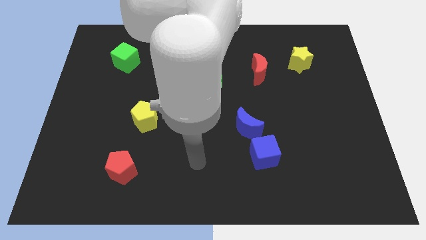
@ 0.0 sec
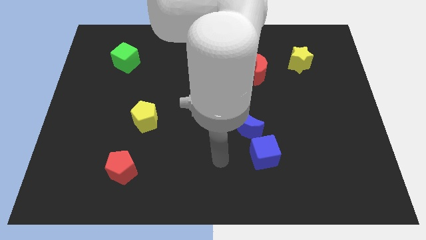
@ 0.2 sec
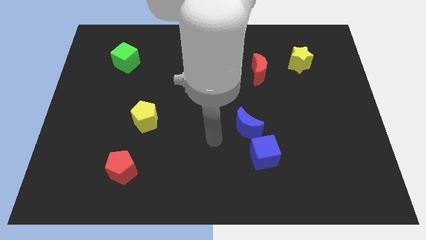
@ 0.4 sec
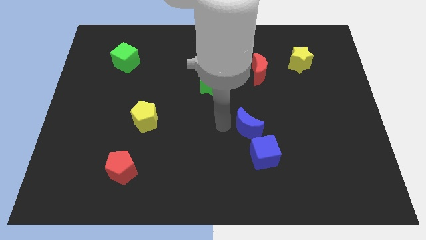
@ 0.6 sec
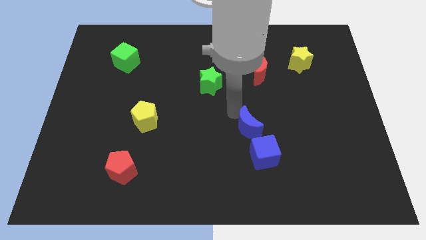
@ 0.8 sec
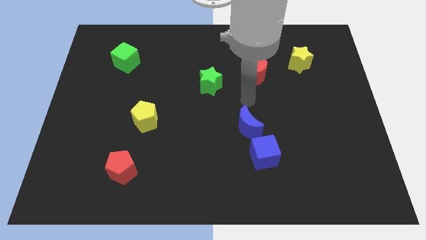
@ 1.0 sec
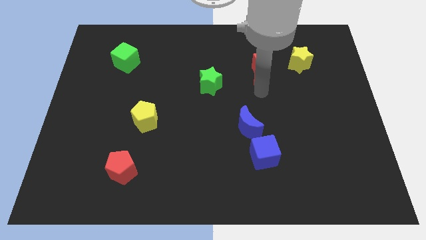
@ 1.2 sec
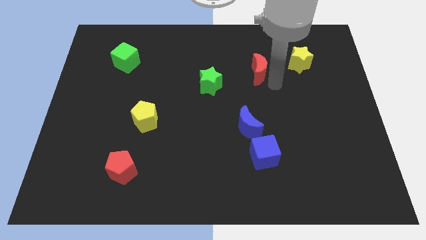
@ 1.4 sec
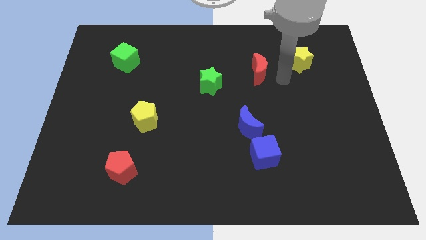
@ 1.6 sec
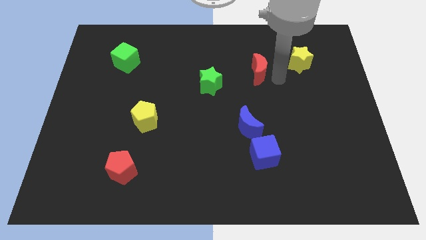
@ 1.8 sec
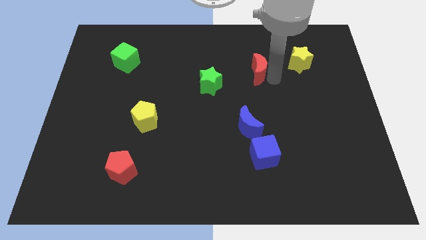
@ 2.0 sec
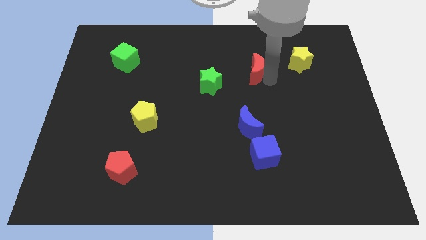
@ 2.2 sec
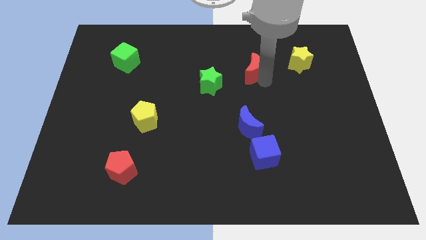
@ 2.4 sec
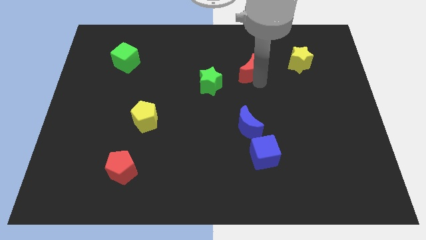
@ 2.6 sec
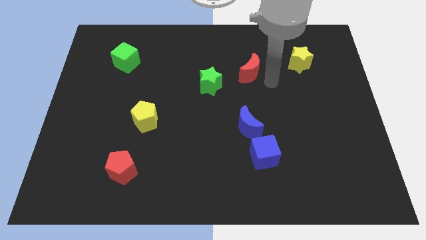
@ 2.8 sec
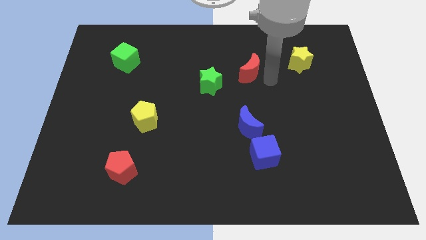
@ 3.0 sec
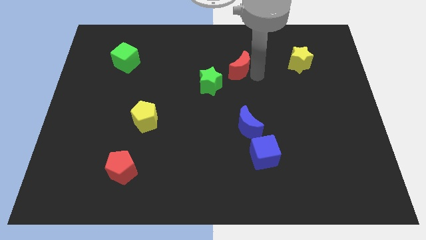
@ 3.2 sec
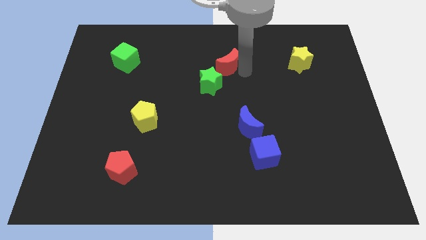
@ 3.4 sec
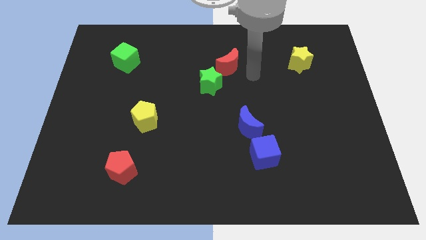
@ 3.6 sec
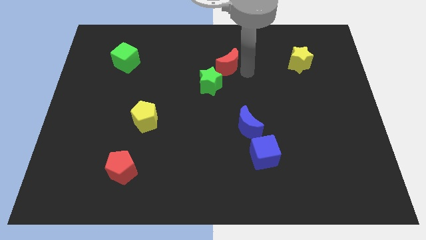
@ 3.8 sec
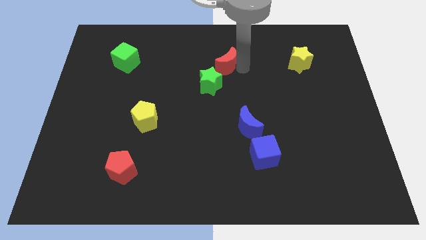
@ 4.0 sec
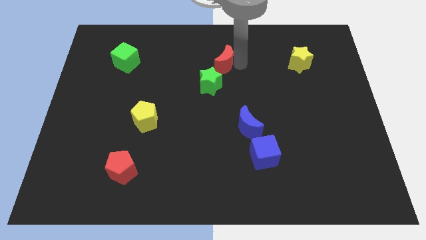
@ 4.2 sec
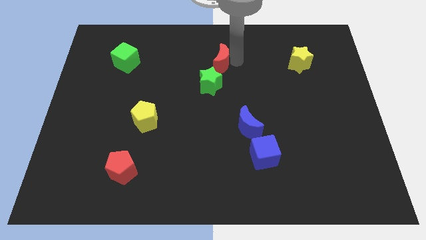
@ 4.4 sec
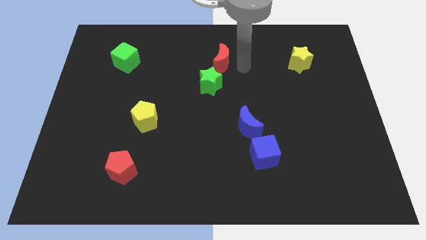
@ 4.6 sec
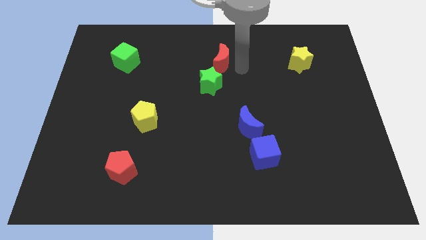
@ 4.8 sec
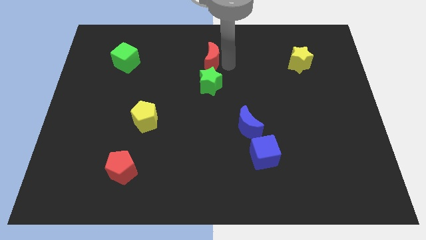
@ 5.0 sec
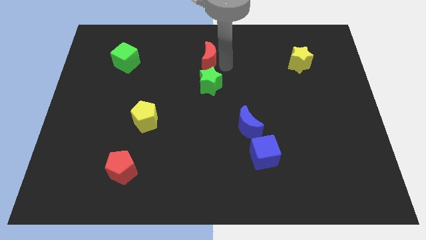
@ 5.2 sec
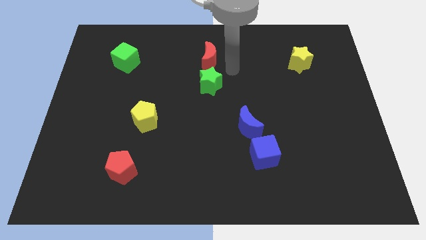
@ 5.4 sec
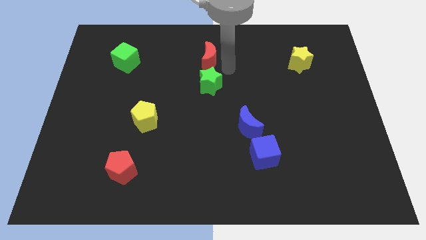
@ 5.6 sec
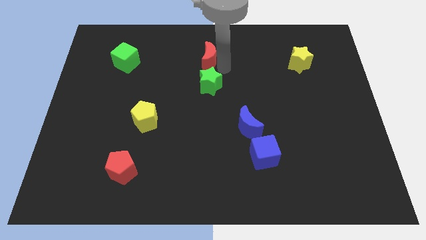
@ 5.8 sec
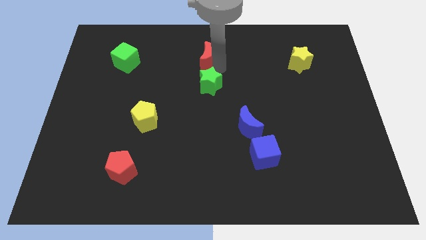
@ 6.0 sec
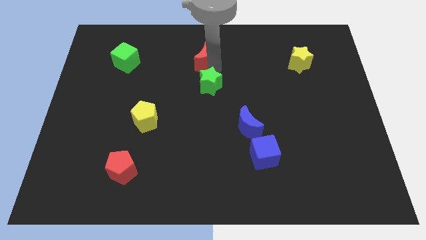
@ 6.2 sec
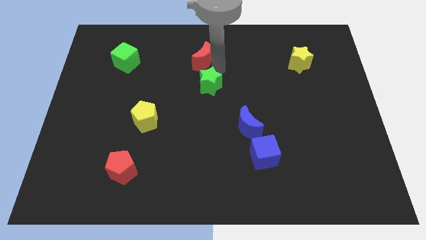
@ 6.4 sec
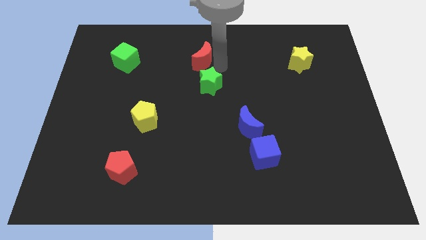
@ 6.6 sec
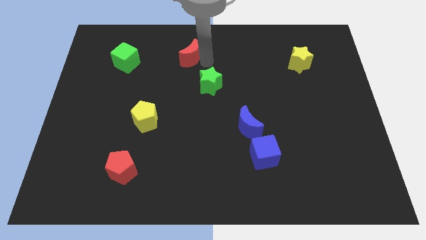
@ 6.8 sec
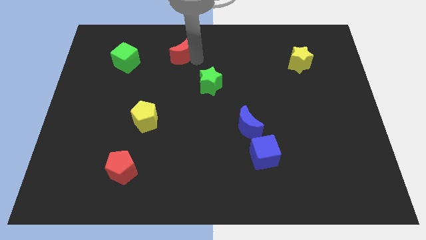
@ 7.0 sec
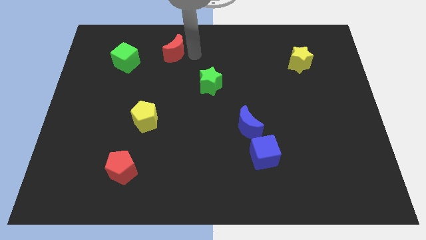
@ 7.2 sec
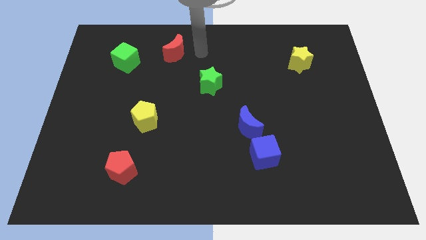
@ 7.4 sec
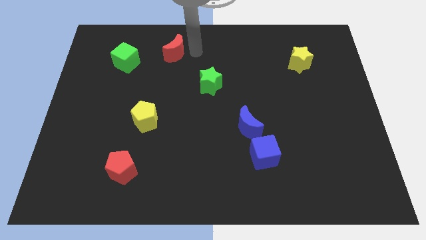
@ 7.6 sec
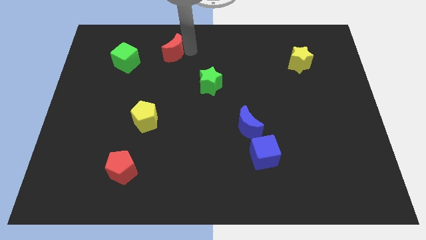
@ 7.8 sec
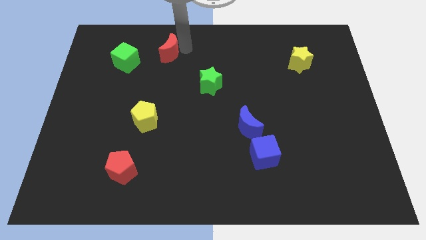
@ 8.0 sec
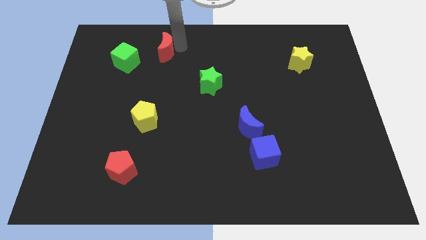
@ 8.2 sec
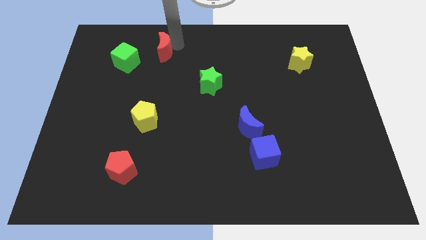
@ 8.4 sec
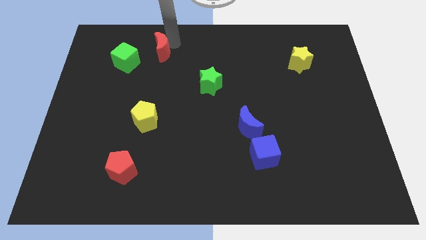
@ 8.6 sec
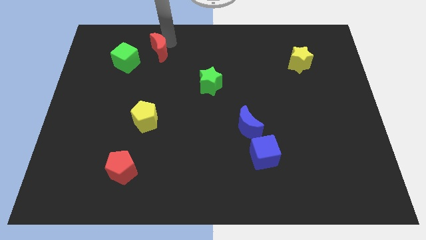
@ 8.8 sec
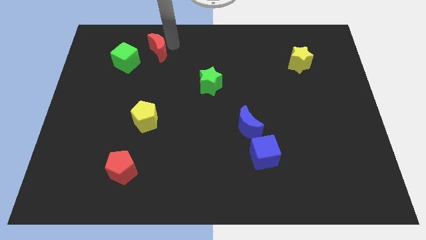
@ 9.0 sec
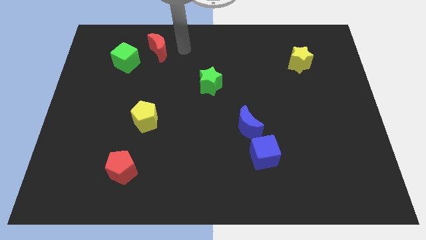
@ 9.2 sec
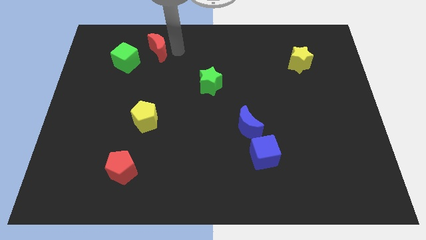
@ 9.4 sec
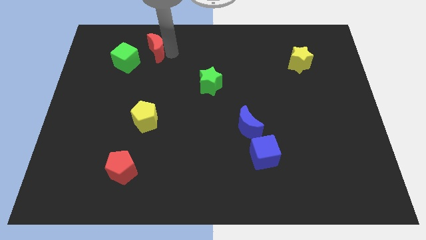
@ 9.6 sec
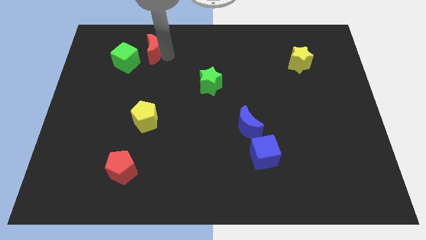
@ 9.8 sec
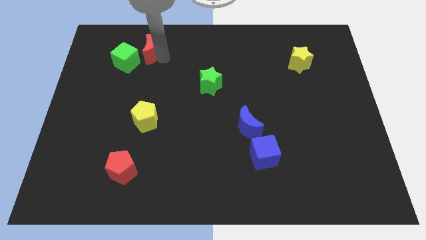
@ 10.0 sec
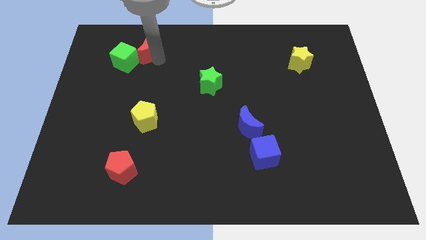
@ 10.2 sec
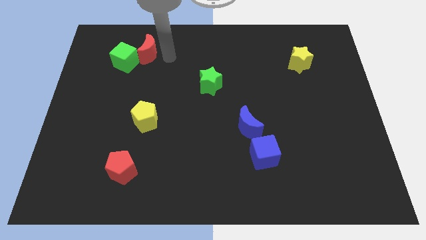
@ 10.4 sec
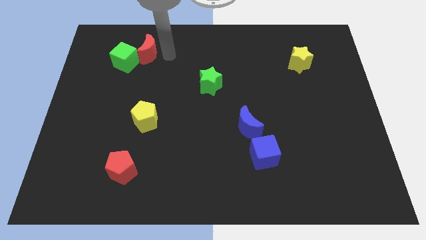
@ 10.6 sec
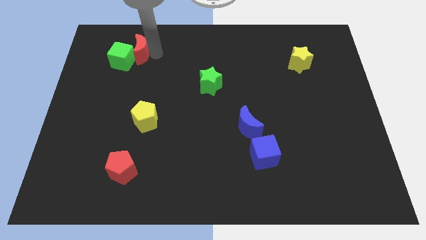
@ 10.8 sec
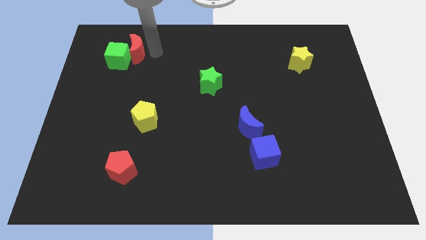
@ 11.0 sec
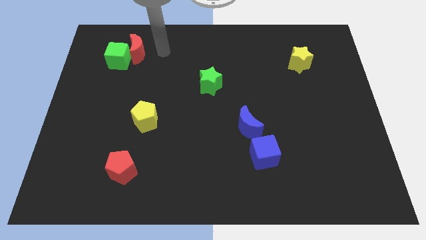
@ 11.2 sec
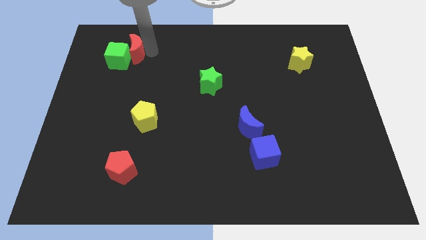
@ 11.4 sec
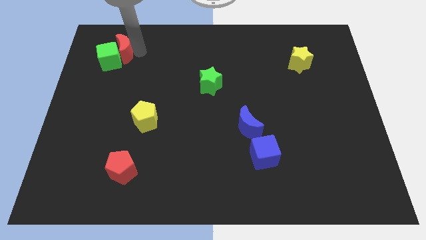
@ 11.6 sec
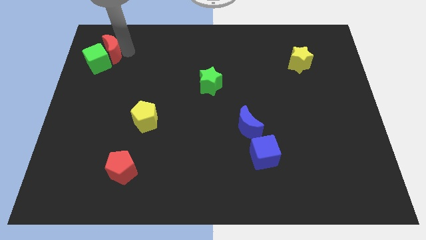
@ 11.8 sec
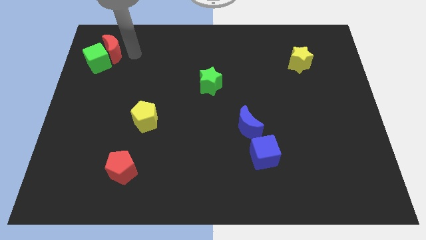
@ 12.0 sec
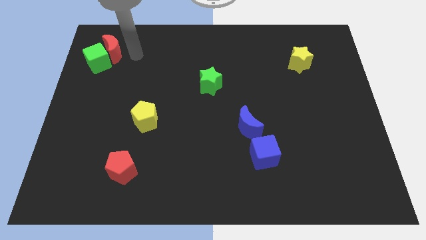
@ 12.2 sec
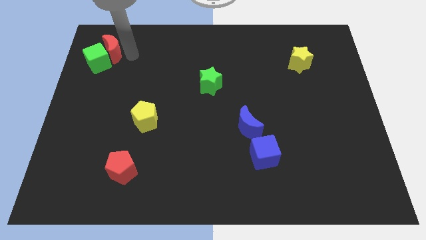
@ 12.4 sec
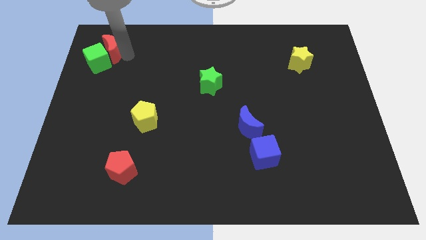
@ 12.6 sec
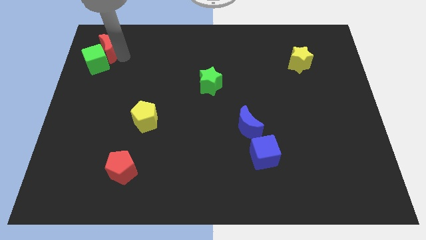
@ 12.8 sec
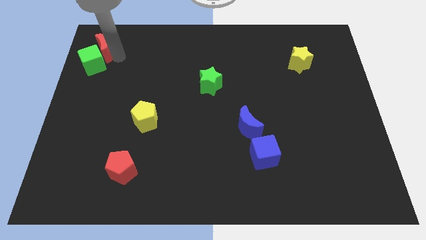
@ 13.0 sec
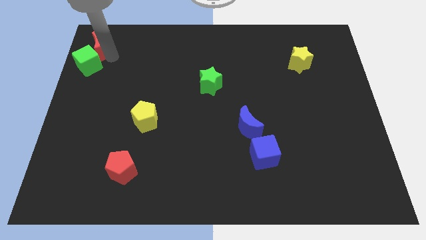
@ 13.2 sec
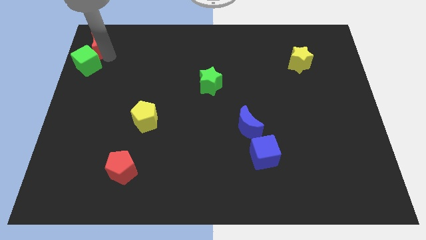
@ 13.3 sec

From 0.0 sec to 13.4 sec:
push the red moon to the top left of the board
